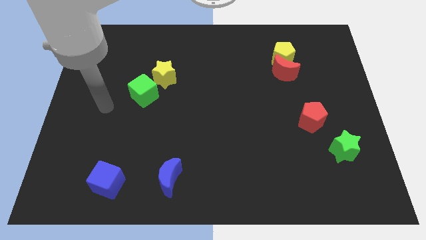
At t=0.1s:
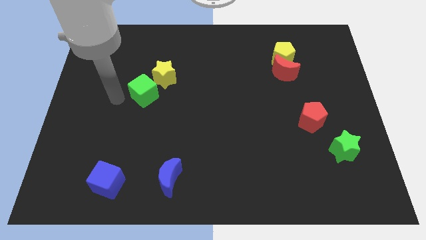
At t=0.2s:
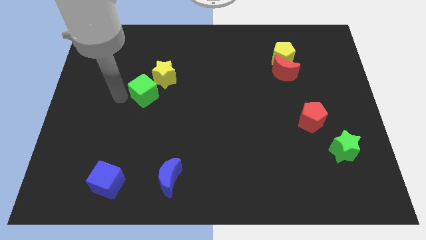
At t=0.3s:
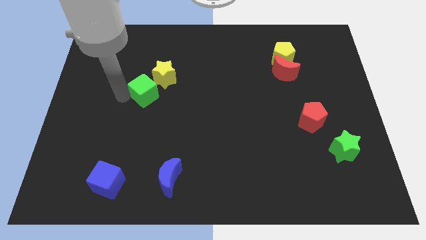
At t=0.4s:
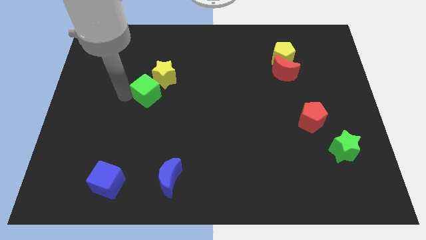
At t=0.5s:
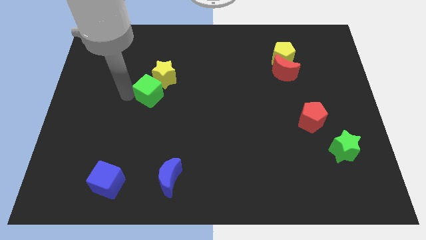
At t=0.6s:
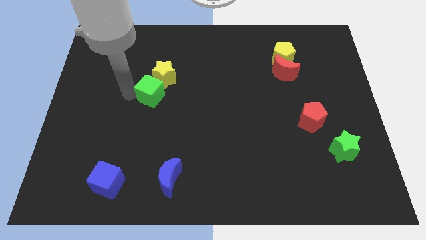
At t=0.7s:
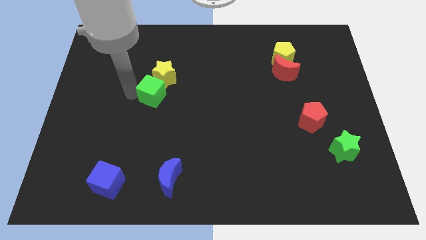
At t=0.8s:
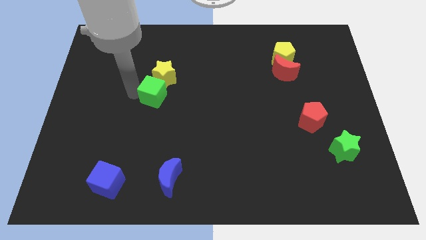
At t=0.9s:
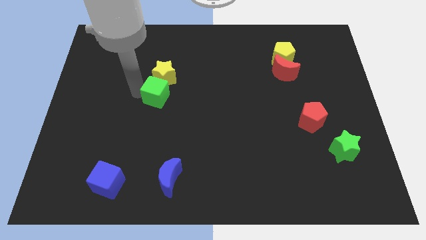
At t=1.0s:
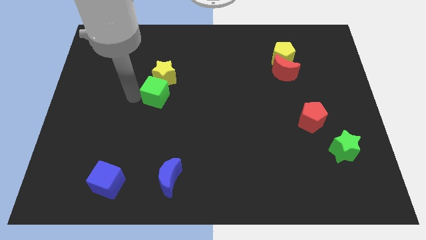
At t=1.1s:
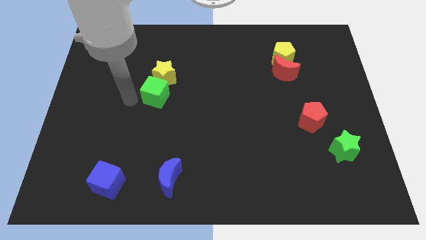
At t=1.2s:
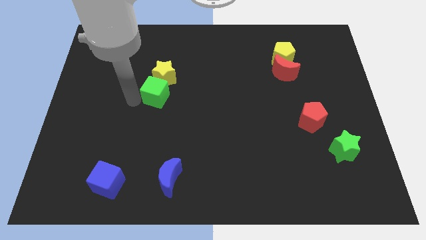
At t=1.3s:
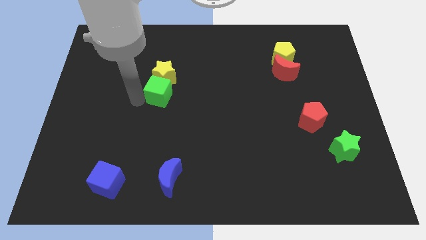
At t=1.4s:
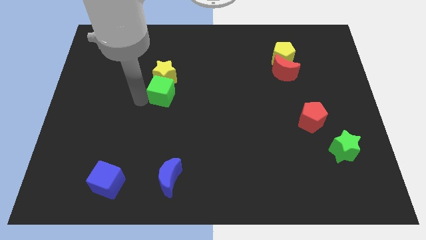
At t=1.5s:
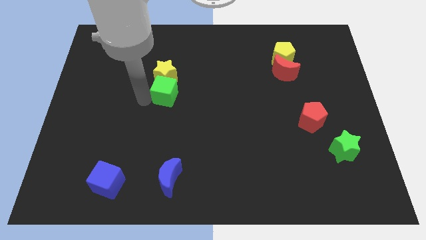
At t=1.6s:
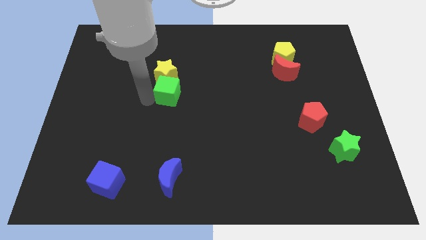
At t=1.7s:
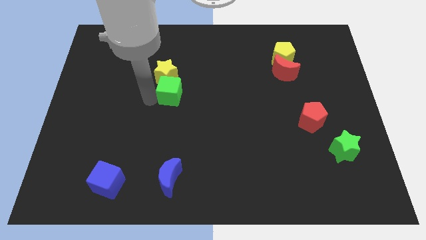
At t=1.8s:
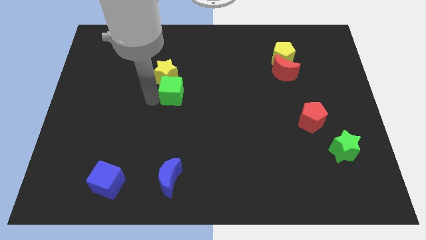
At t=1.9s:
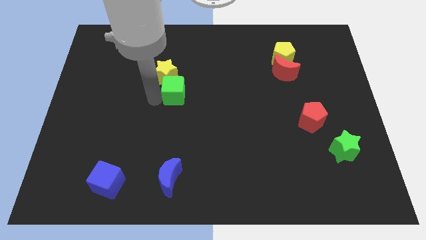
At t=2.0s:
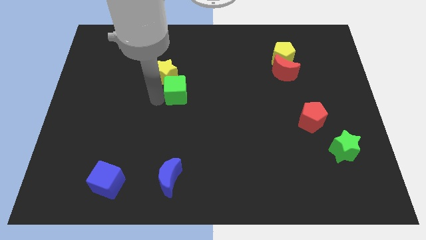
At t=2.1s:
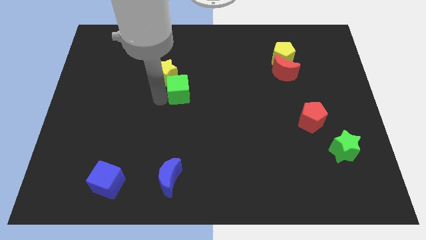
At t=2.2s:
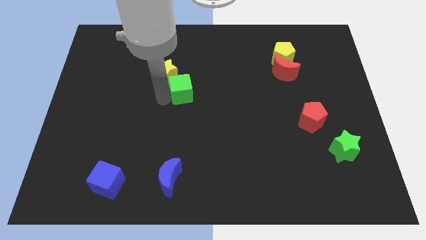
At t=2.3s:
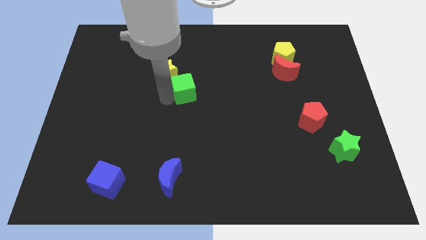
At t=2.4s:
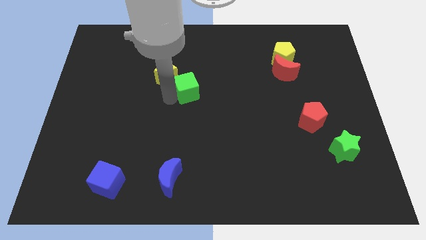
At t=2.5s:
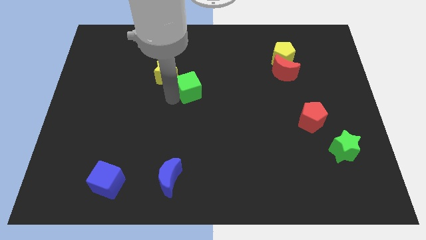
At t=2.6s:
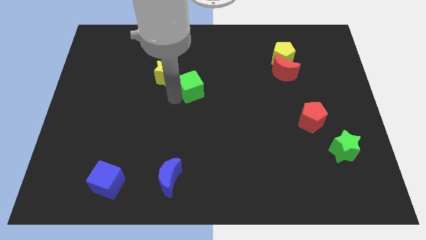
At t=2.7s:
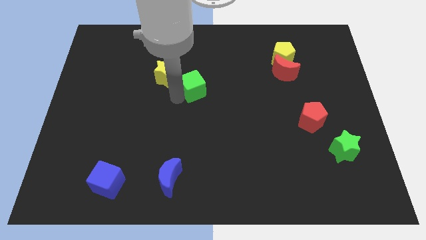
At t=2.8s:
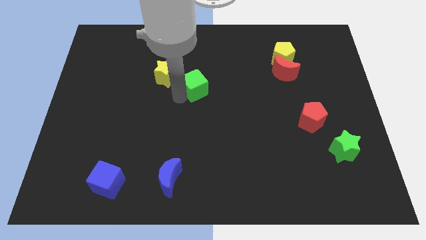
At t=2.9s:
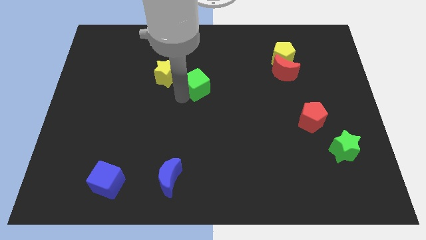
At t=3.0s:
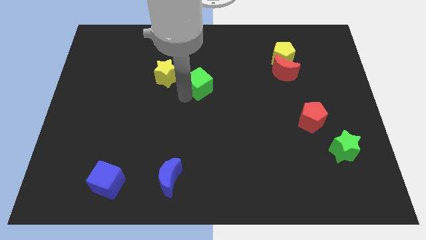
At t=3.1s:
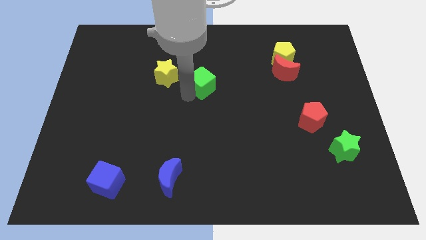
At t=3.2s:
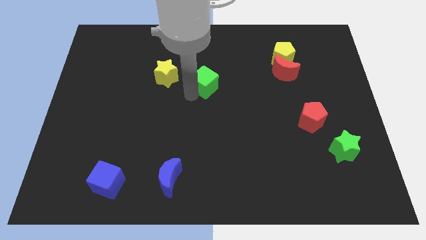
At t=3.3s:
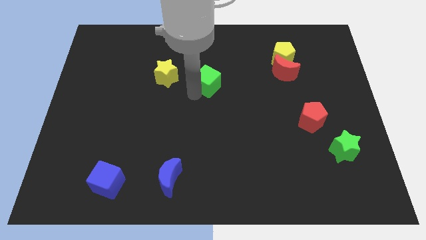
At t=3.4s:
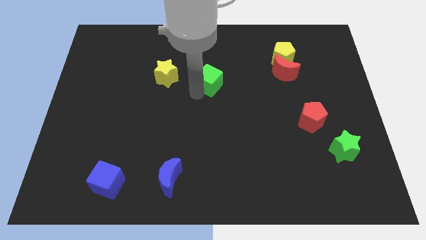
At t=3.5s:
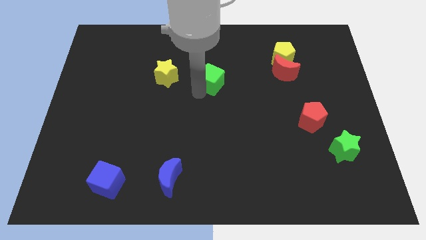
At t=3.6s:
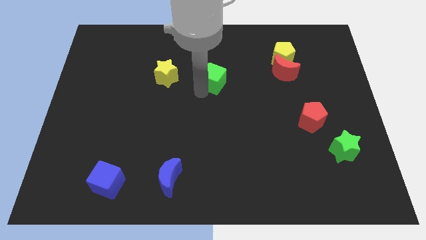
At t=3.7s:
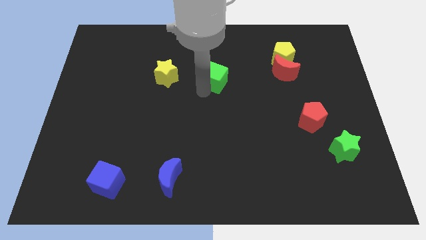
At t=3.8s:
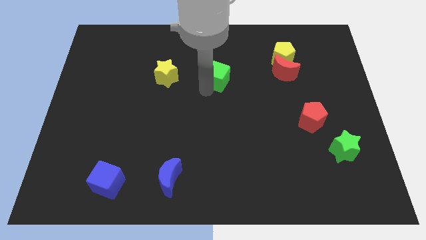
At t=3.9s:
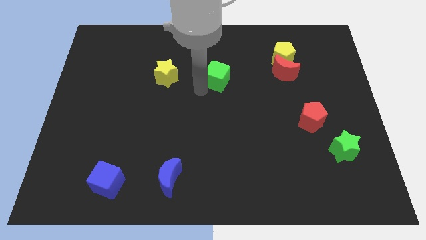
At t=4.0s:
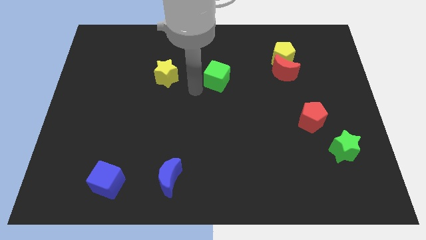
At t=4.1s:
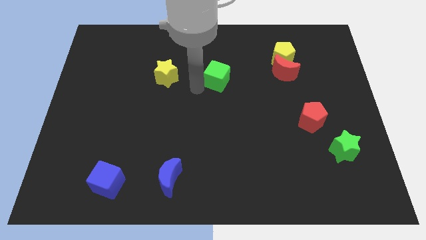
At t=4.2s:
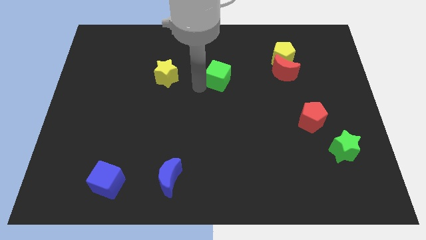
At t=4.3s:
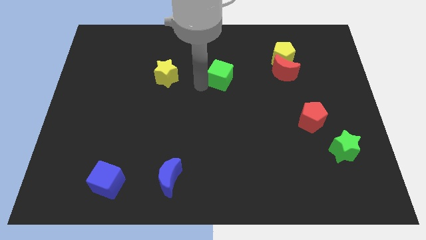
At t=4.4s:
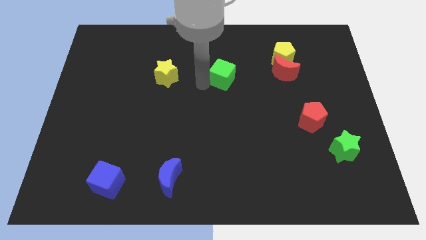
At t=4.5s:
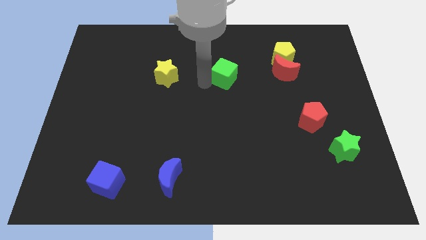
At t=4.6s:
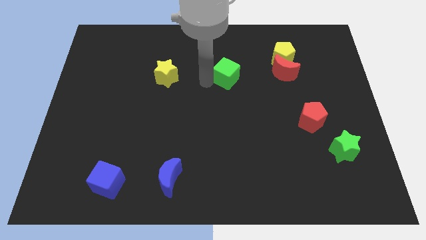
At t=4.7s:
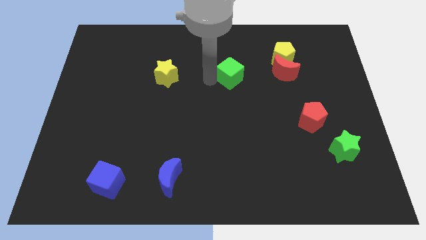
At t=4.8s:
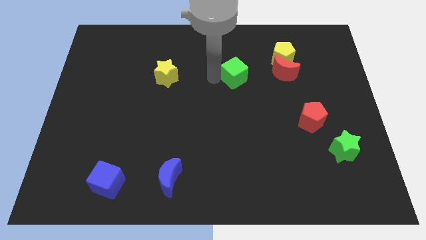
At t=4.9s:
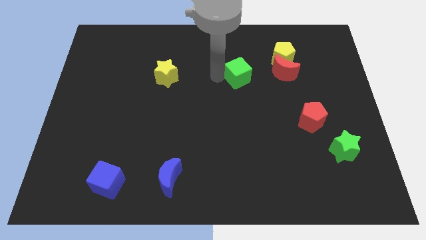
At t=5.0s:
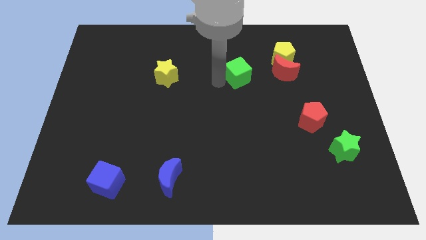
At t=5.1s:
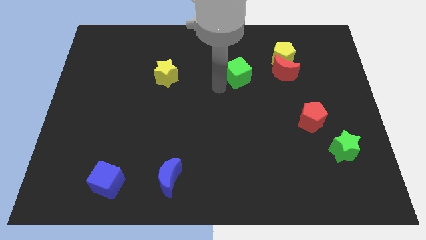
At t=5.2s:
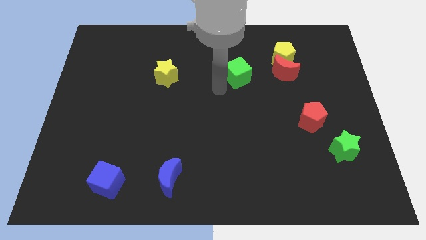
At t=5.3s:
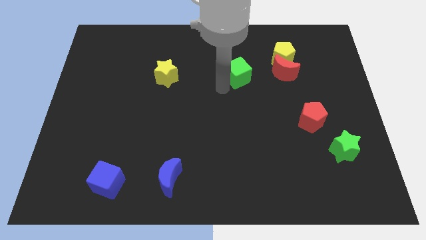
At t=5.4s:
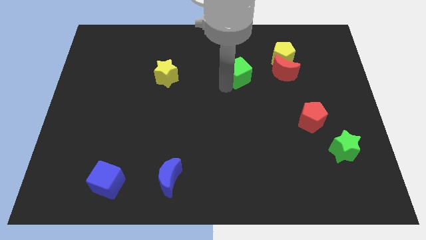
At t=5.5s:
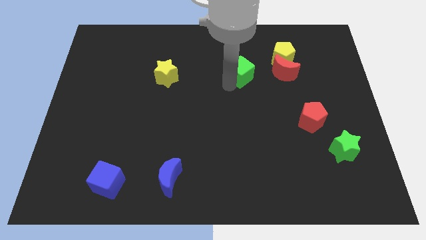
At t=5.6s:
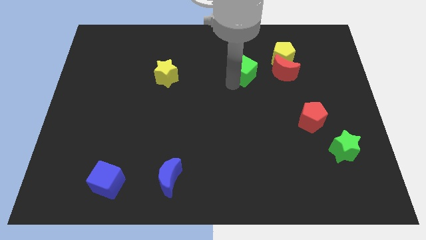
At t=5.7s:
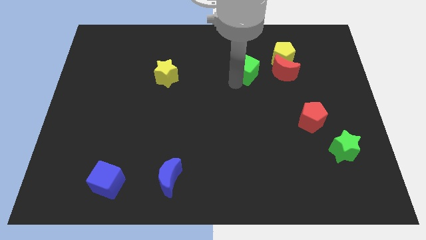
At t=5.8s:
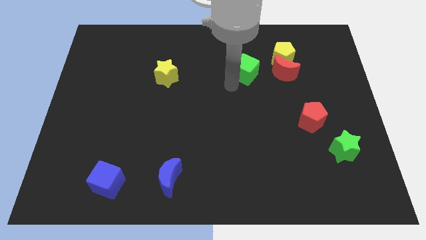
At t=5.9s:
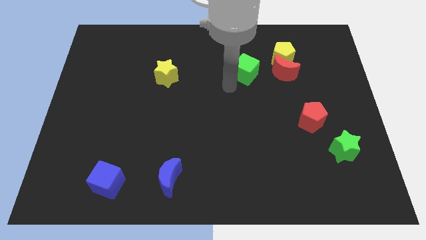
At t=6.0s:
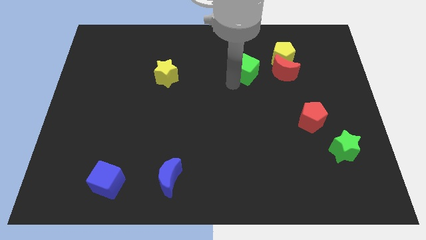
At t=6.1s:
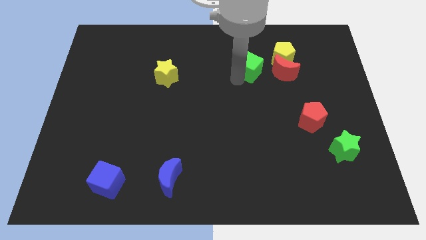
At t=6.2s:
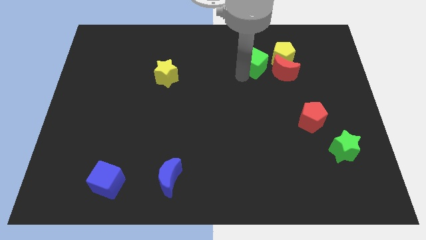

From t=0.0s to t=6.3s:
put the green cube to the top left side of the red moon
